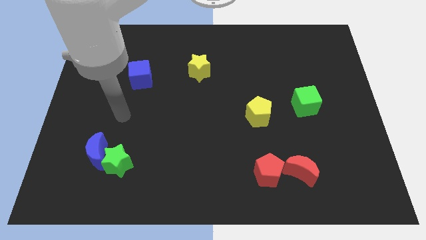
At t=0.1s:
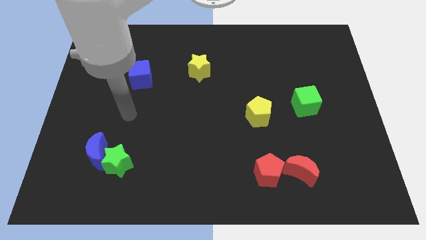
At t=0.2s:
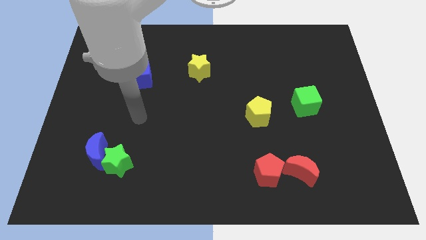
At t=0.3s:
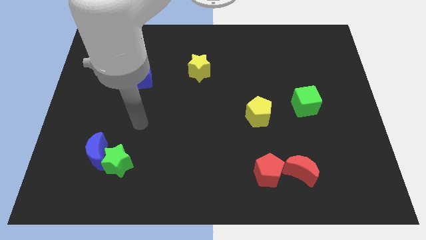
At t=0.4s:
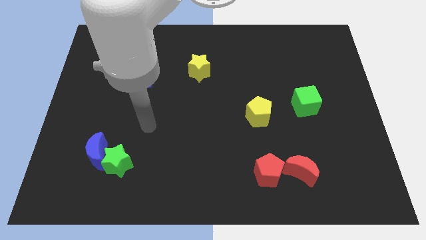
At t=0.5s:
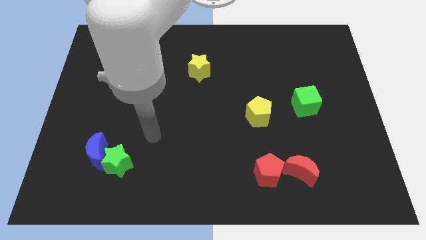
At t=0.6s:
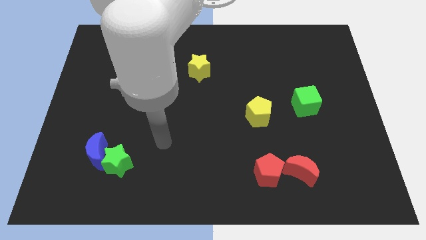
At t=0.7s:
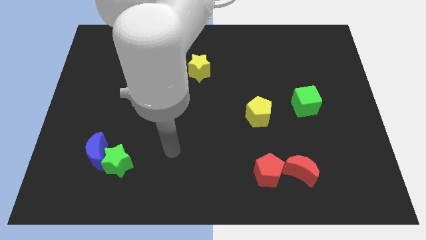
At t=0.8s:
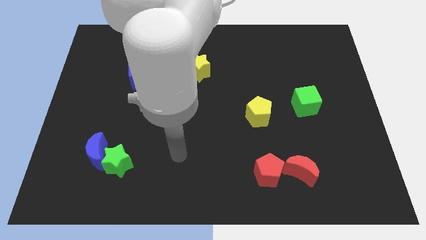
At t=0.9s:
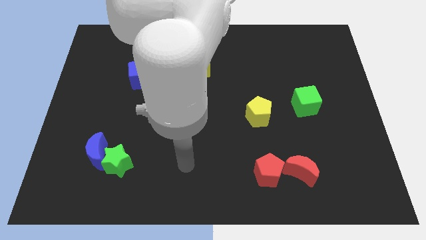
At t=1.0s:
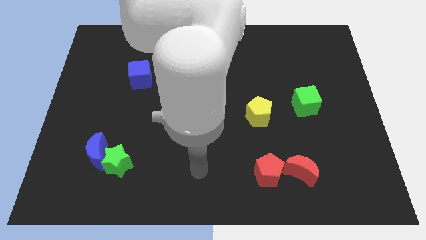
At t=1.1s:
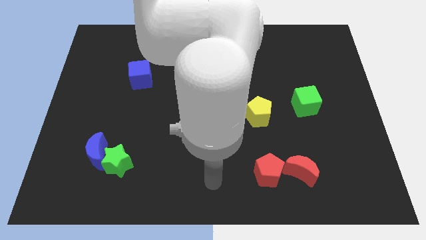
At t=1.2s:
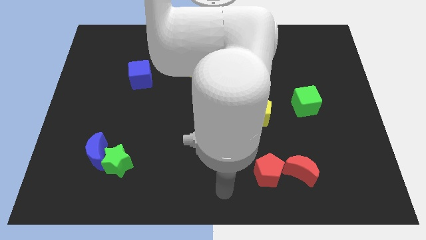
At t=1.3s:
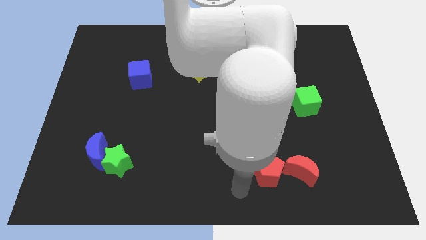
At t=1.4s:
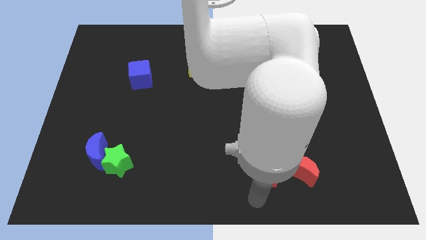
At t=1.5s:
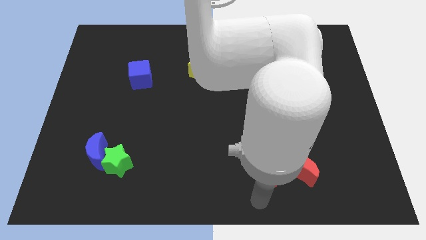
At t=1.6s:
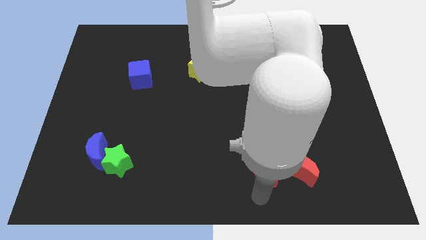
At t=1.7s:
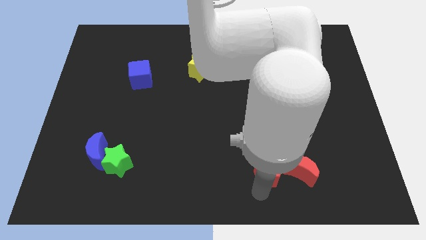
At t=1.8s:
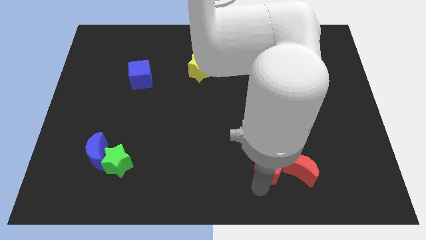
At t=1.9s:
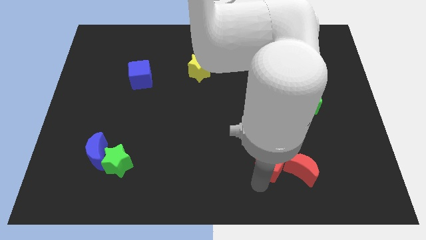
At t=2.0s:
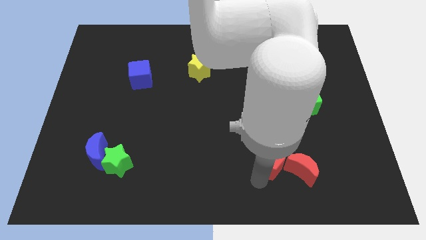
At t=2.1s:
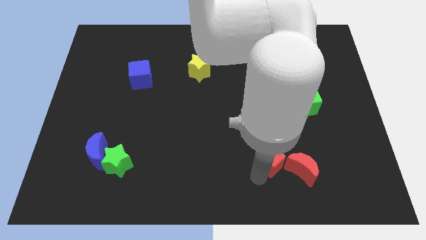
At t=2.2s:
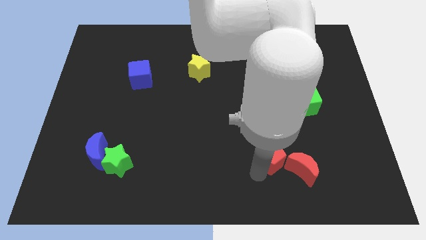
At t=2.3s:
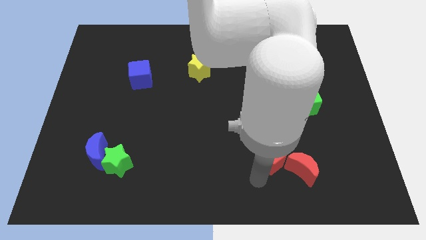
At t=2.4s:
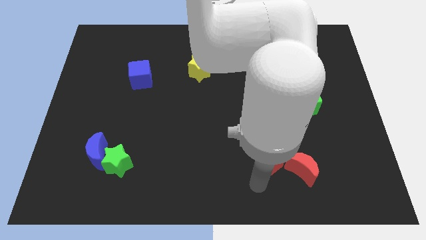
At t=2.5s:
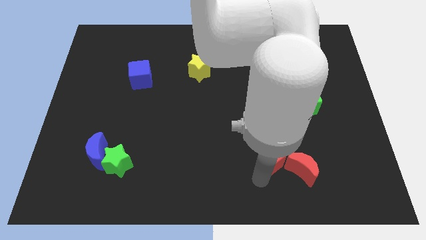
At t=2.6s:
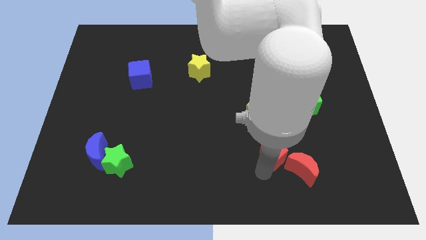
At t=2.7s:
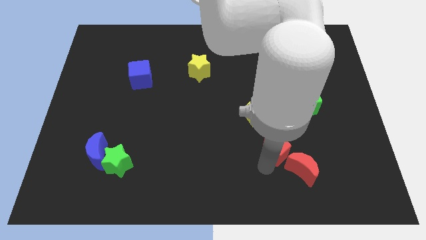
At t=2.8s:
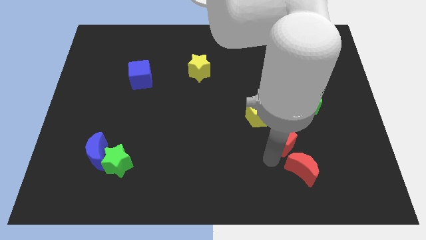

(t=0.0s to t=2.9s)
slightly move the red pentagon up

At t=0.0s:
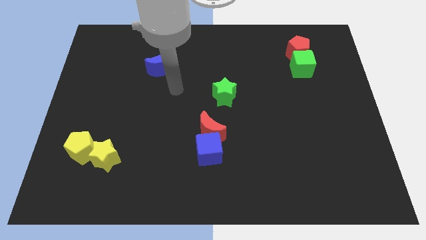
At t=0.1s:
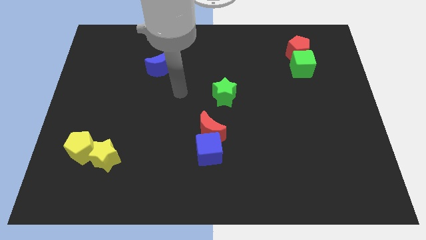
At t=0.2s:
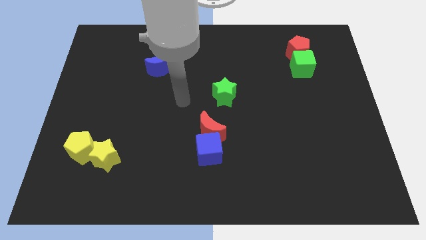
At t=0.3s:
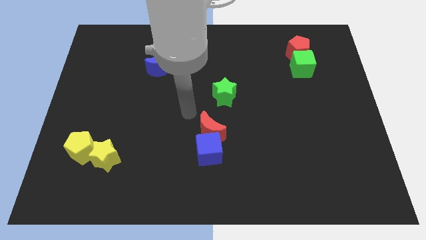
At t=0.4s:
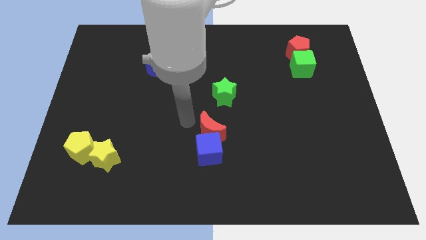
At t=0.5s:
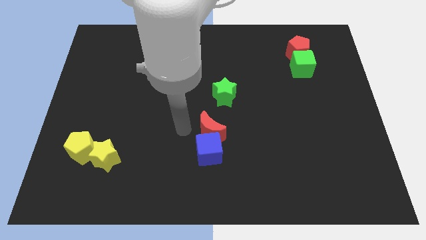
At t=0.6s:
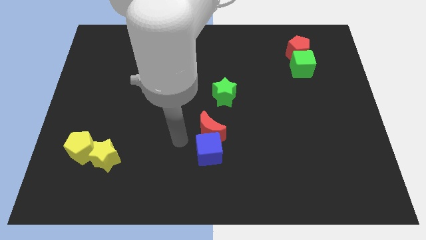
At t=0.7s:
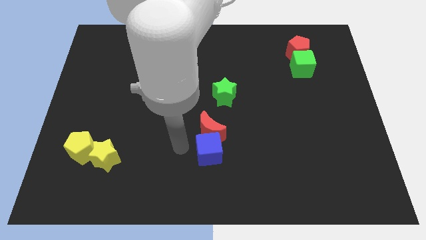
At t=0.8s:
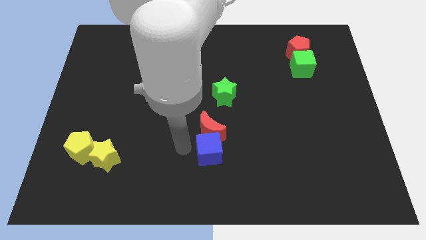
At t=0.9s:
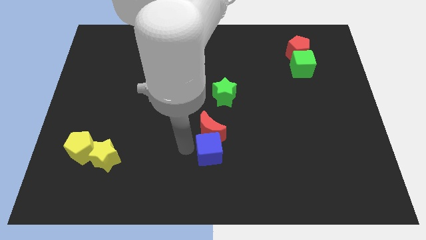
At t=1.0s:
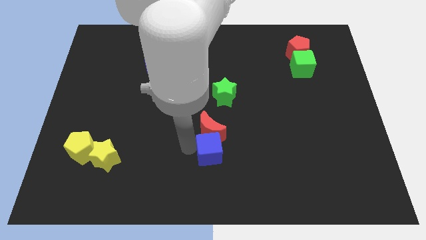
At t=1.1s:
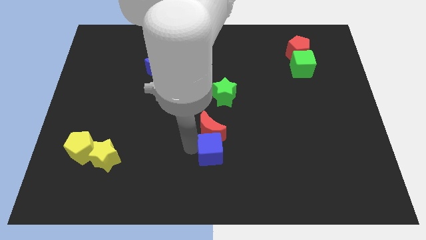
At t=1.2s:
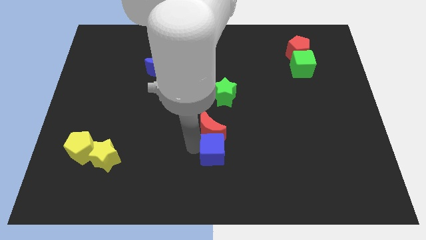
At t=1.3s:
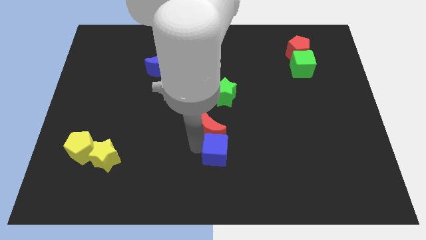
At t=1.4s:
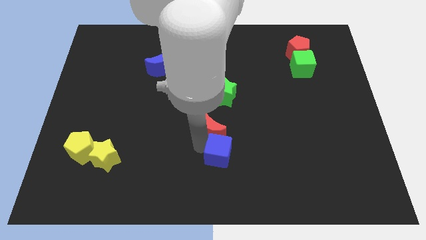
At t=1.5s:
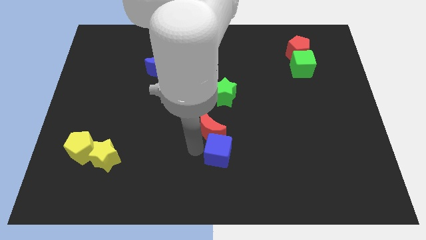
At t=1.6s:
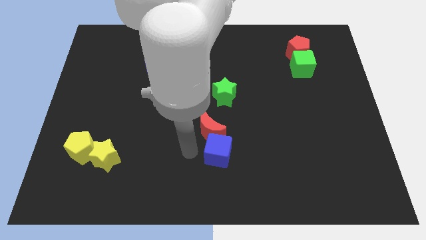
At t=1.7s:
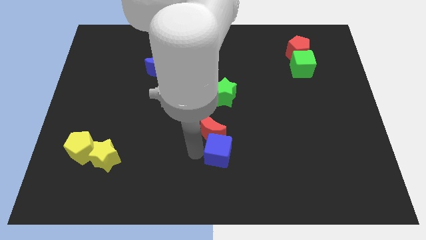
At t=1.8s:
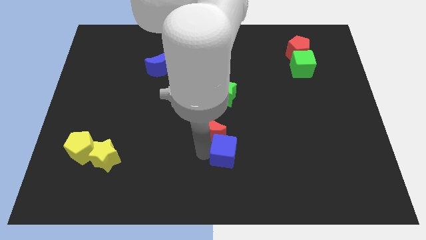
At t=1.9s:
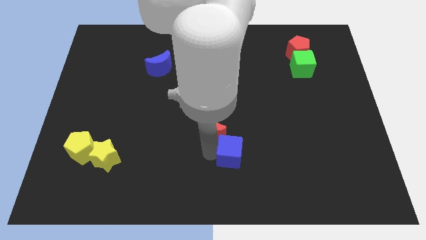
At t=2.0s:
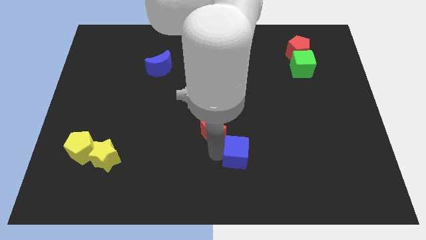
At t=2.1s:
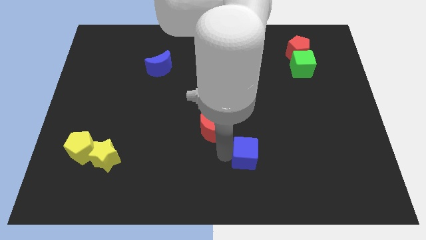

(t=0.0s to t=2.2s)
push the blue cube a little bit to the right

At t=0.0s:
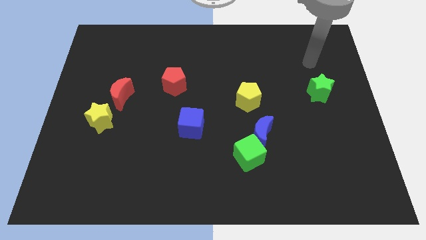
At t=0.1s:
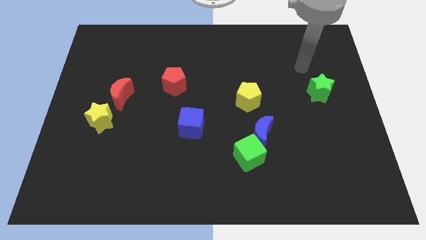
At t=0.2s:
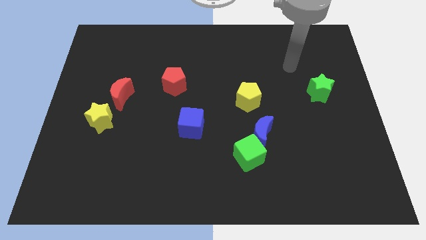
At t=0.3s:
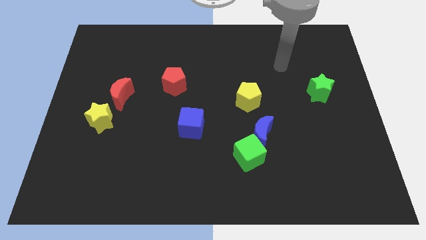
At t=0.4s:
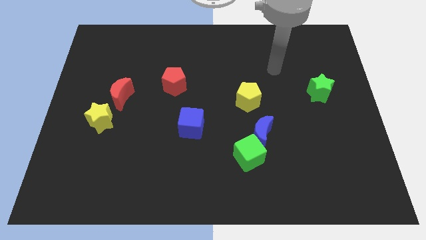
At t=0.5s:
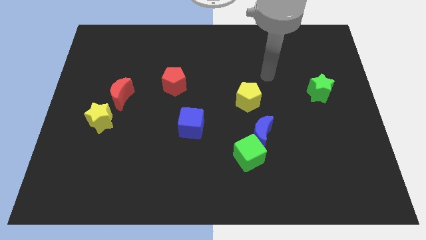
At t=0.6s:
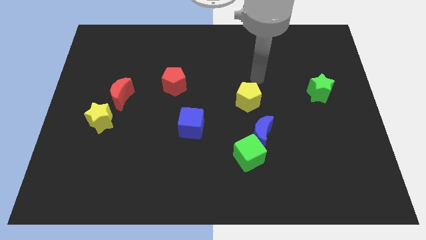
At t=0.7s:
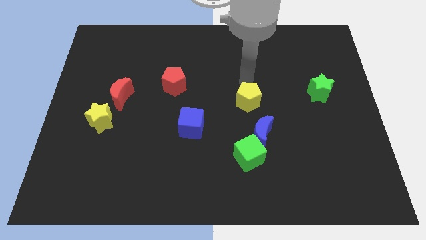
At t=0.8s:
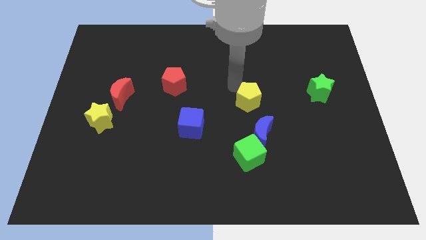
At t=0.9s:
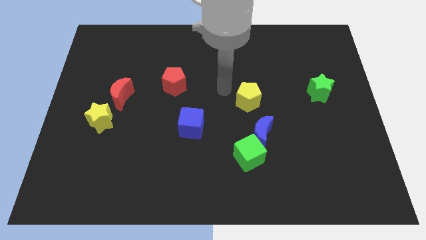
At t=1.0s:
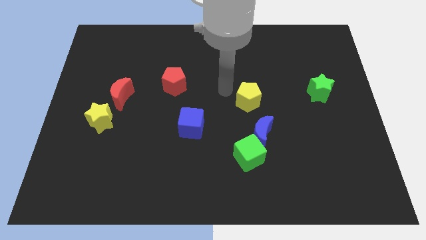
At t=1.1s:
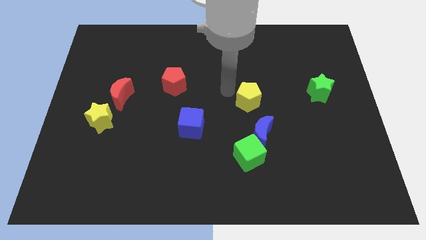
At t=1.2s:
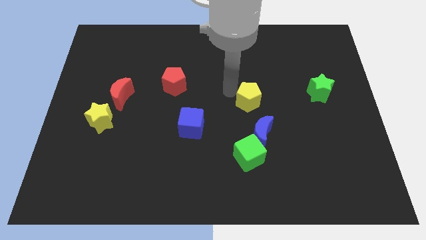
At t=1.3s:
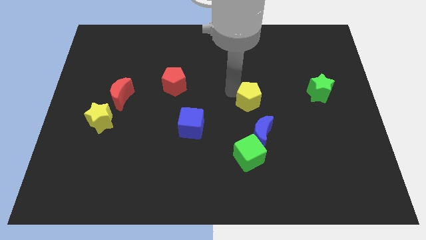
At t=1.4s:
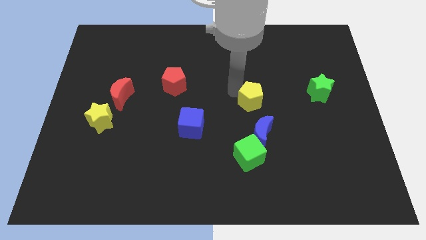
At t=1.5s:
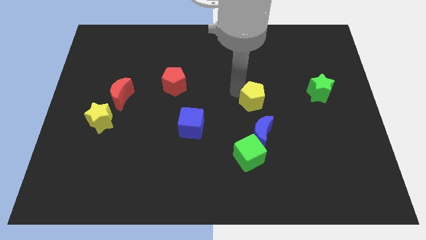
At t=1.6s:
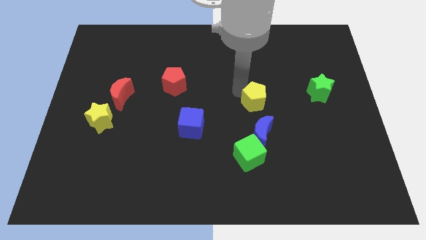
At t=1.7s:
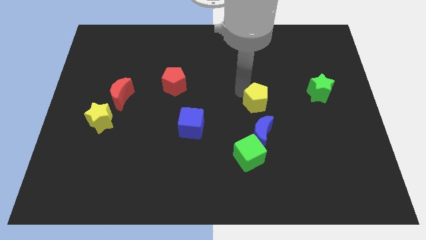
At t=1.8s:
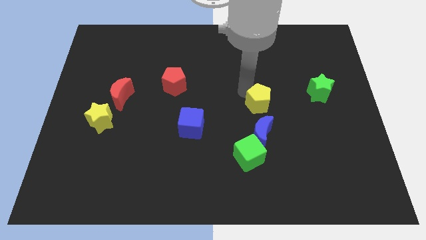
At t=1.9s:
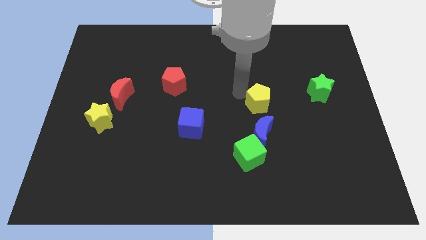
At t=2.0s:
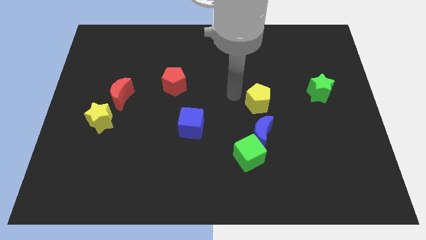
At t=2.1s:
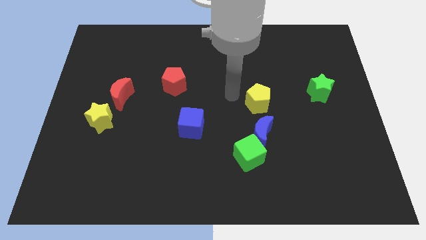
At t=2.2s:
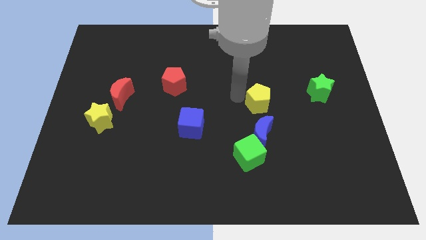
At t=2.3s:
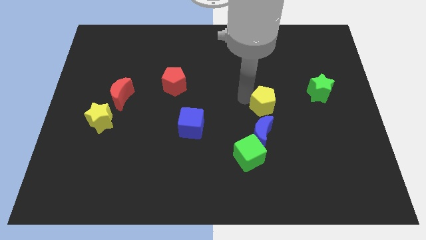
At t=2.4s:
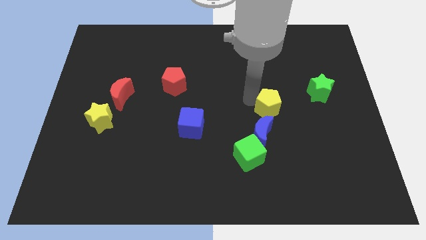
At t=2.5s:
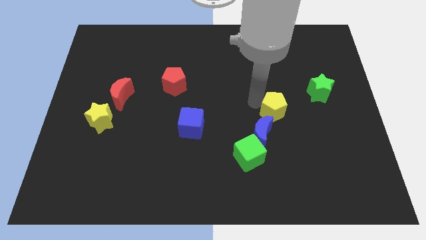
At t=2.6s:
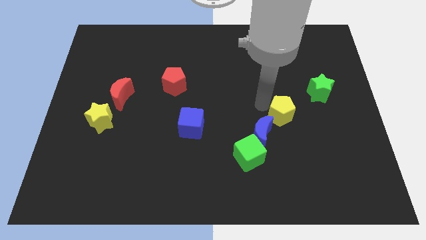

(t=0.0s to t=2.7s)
push the yellow pentagon a bit down and to the right diagonally

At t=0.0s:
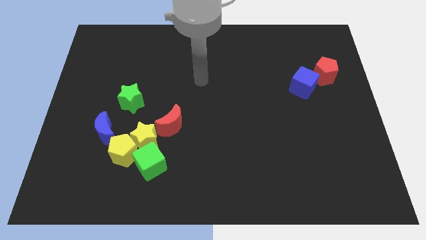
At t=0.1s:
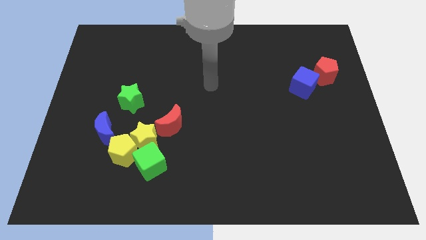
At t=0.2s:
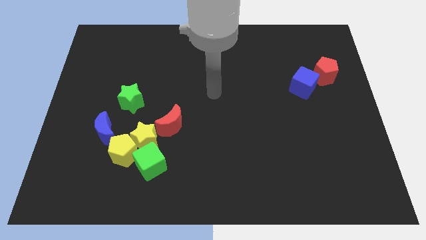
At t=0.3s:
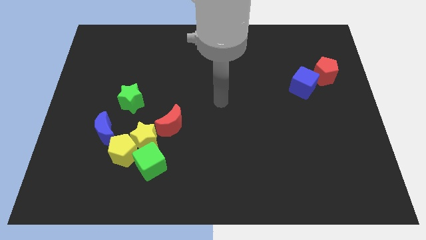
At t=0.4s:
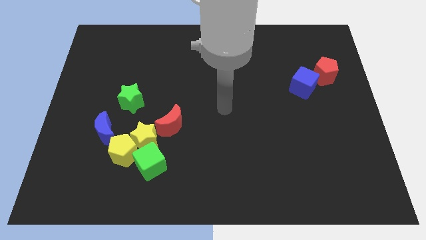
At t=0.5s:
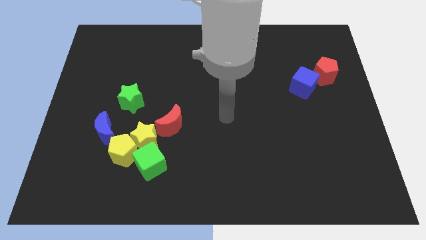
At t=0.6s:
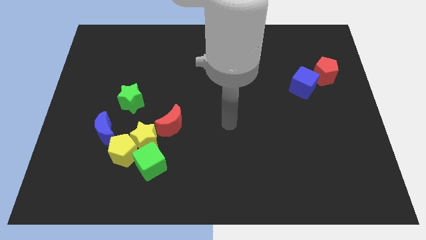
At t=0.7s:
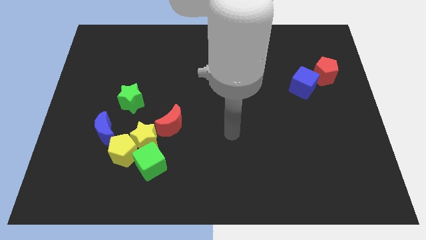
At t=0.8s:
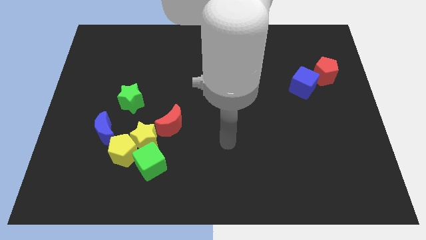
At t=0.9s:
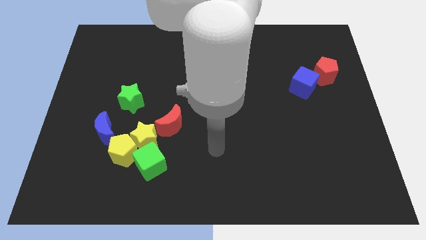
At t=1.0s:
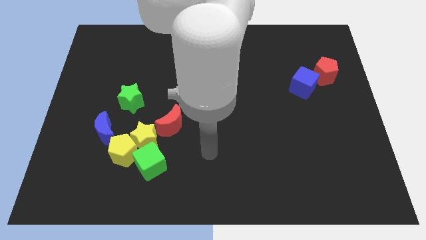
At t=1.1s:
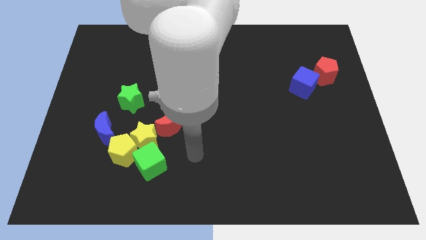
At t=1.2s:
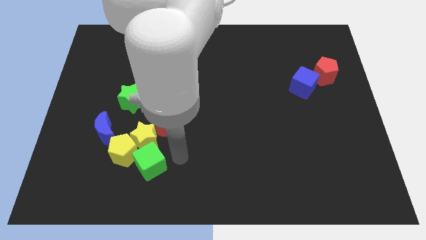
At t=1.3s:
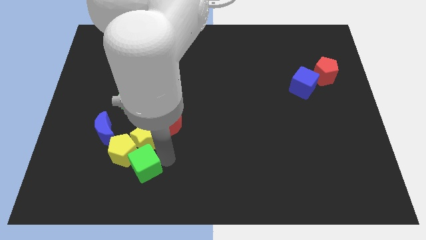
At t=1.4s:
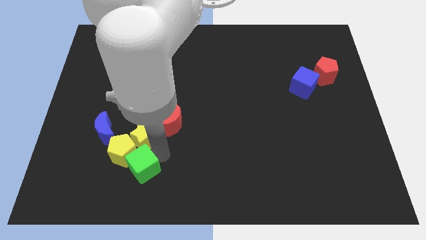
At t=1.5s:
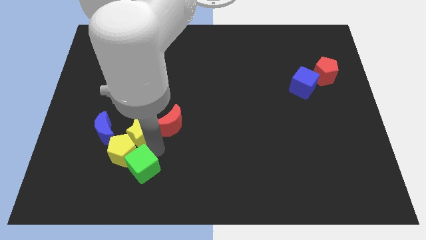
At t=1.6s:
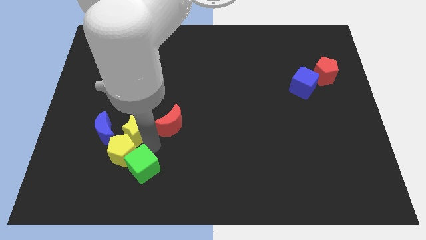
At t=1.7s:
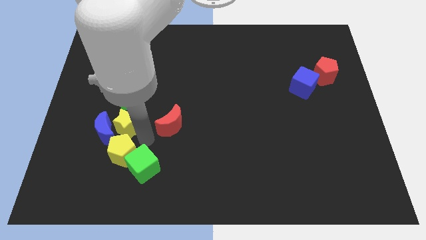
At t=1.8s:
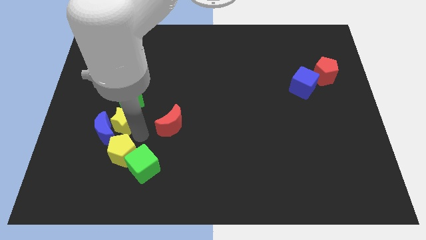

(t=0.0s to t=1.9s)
slightly slide the yellow star upwards and to the left diagonally
